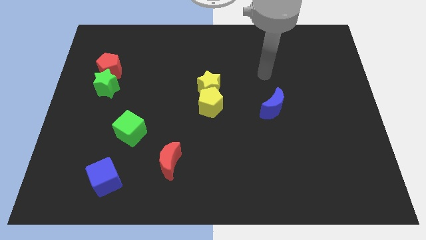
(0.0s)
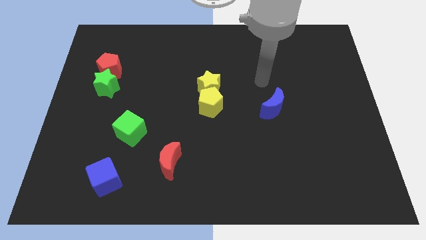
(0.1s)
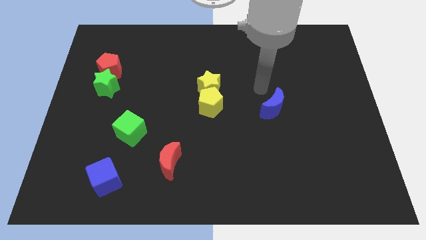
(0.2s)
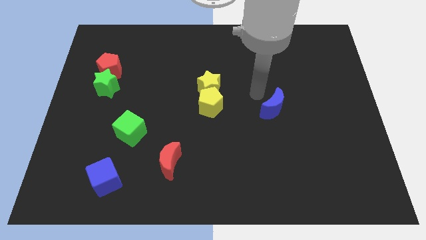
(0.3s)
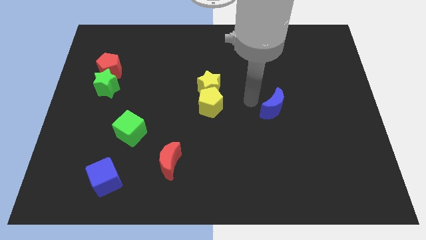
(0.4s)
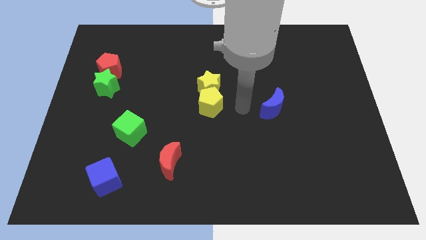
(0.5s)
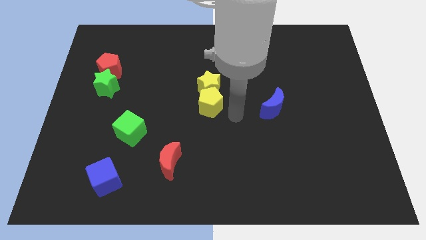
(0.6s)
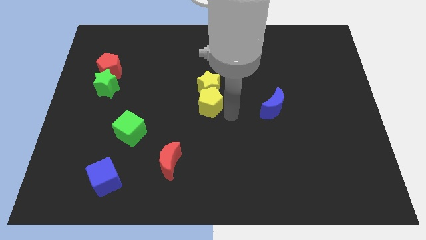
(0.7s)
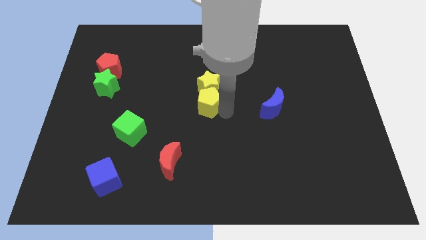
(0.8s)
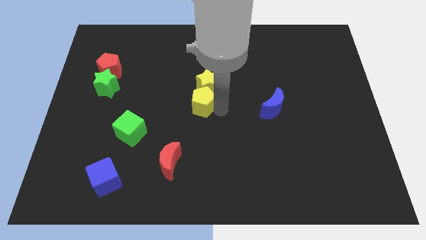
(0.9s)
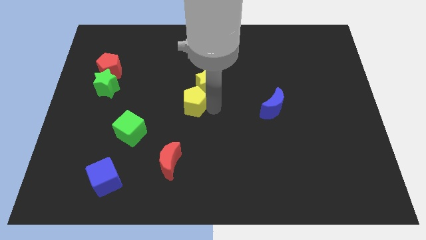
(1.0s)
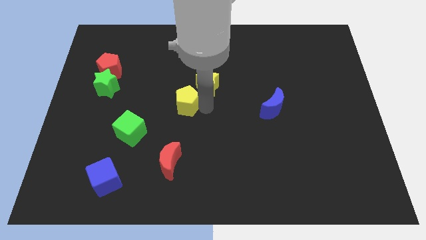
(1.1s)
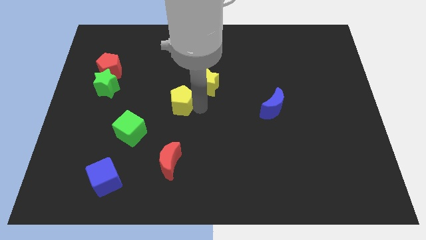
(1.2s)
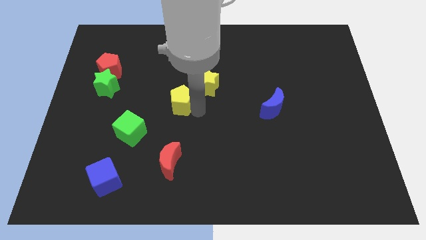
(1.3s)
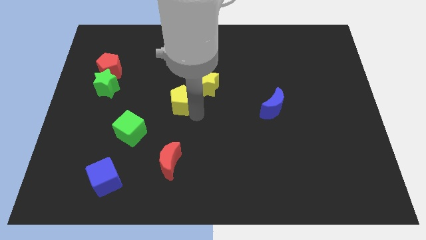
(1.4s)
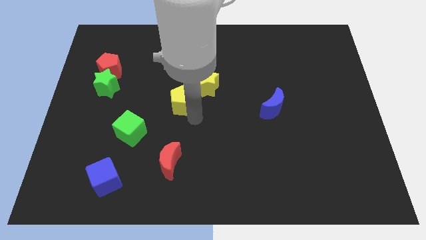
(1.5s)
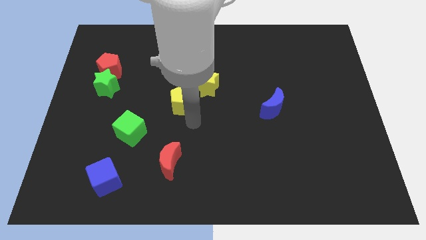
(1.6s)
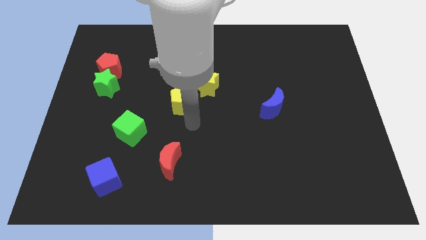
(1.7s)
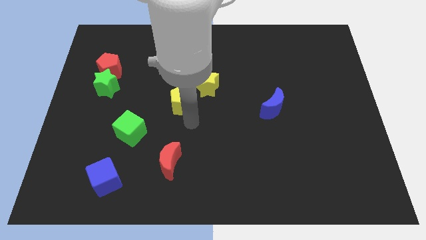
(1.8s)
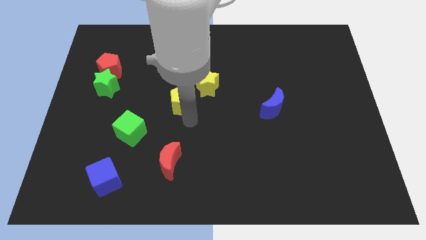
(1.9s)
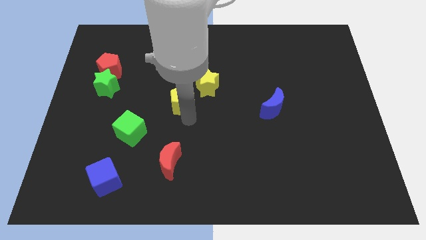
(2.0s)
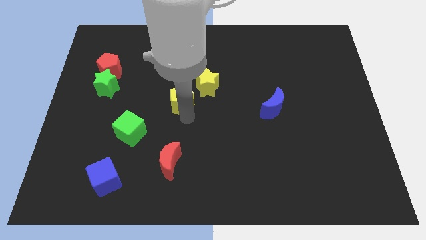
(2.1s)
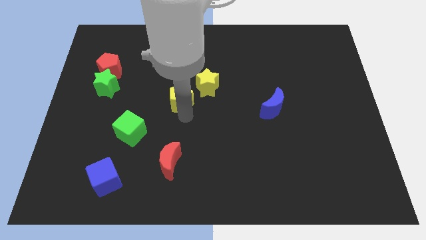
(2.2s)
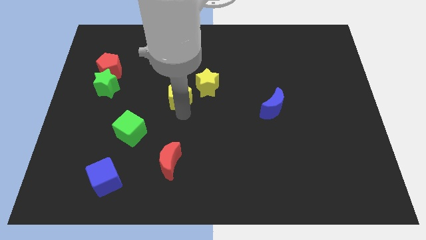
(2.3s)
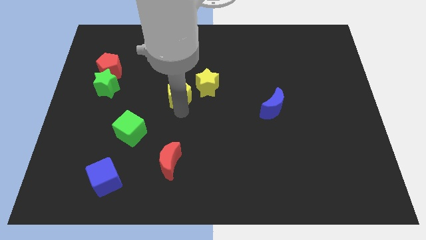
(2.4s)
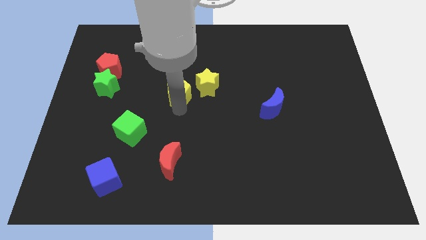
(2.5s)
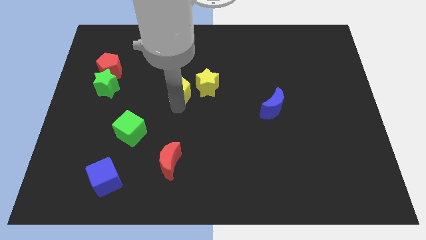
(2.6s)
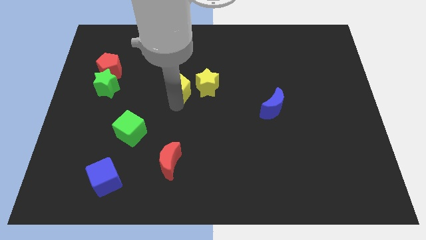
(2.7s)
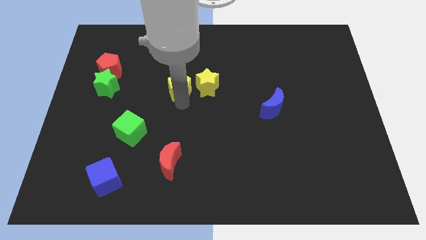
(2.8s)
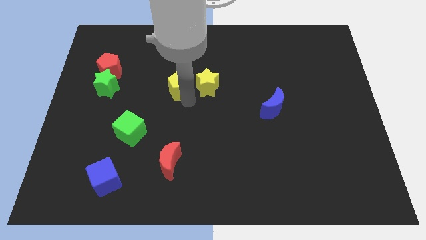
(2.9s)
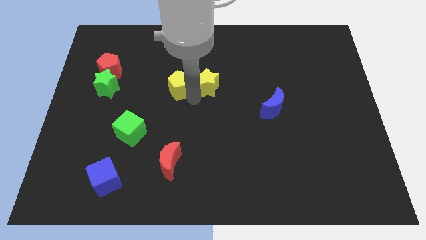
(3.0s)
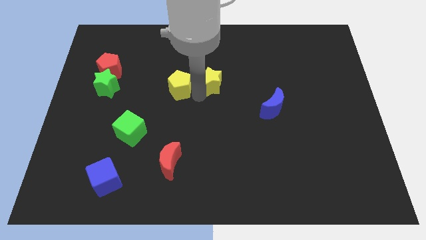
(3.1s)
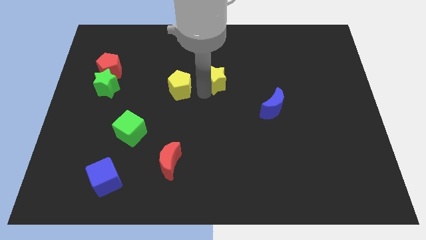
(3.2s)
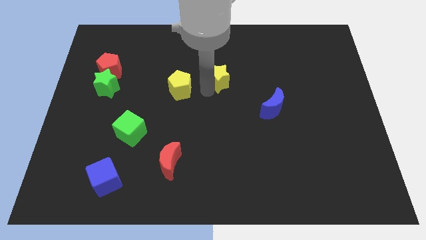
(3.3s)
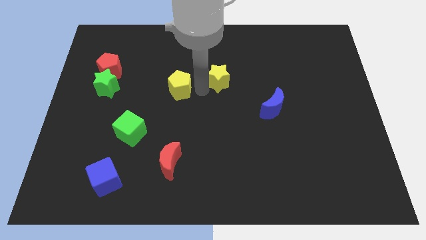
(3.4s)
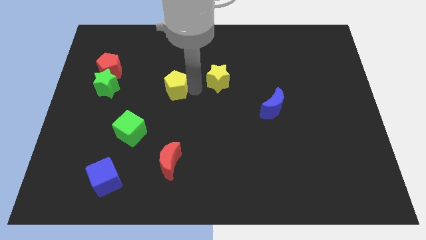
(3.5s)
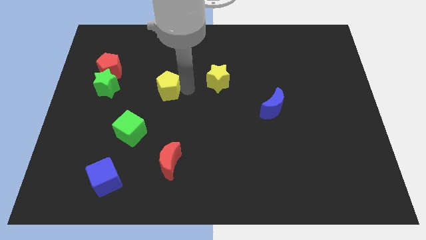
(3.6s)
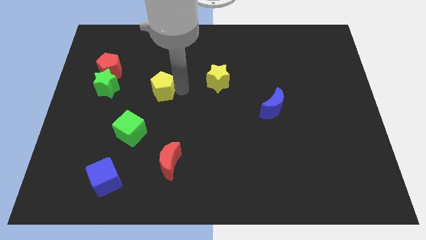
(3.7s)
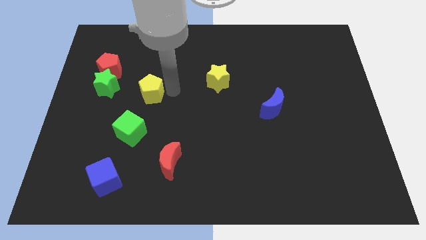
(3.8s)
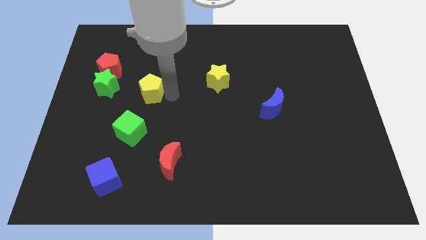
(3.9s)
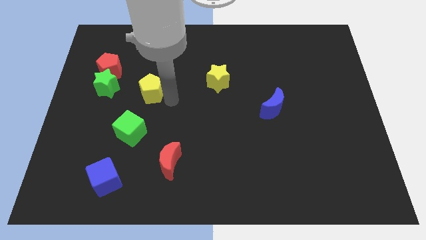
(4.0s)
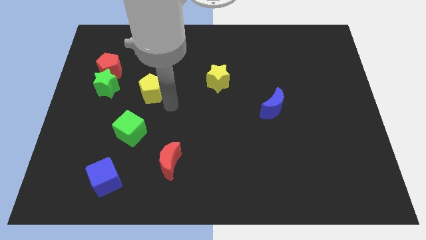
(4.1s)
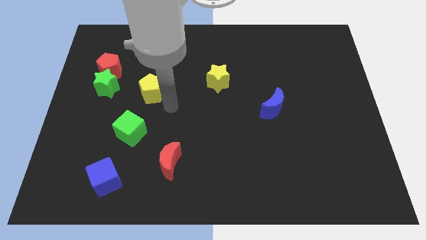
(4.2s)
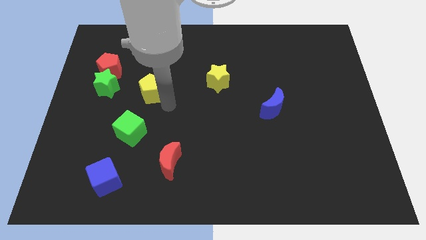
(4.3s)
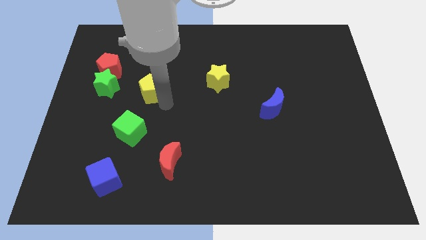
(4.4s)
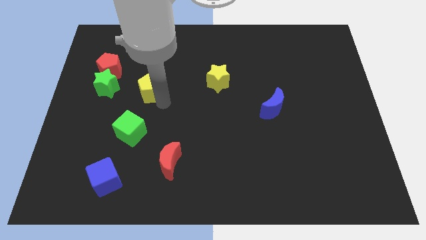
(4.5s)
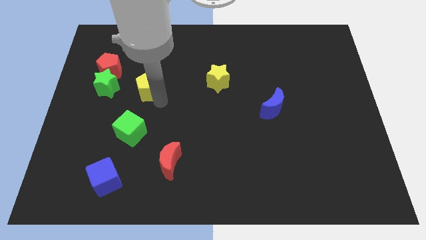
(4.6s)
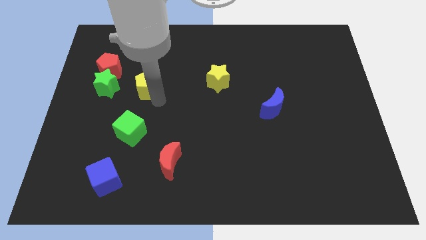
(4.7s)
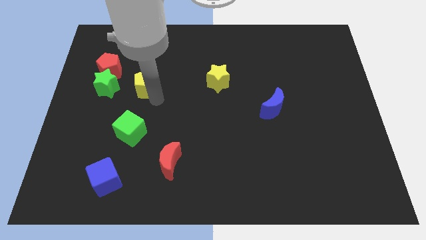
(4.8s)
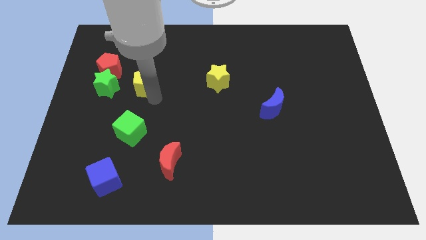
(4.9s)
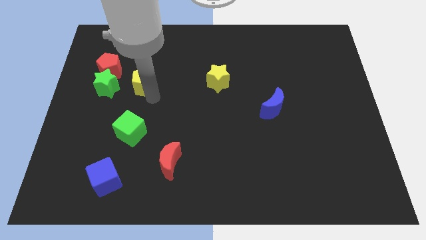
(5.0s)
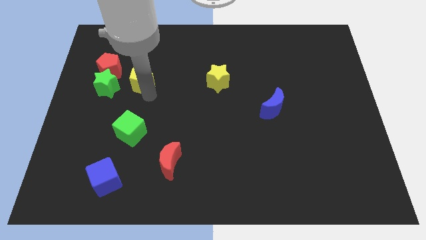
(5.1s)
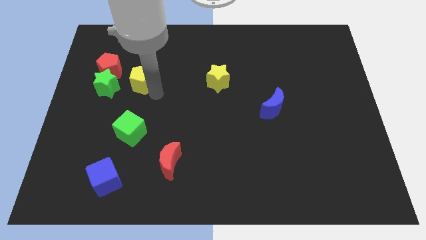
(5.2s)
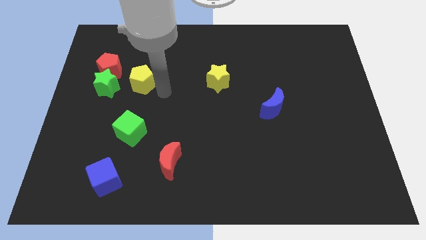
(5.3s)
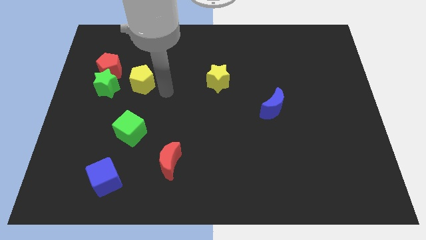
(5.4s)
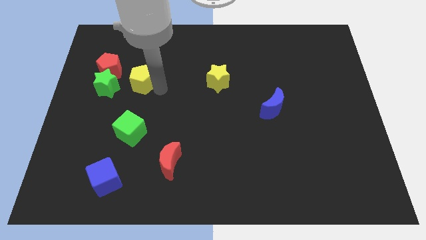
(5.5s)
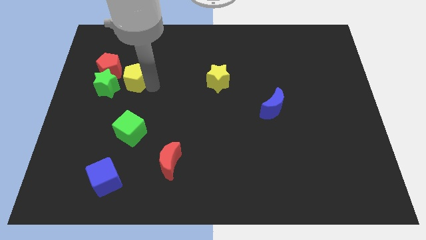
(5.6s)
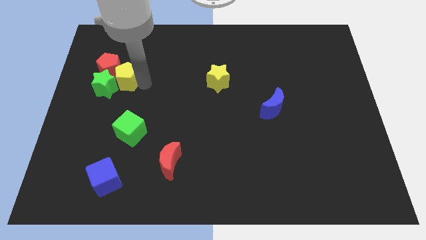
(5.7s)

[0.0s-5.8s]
put the yellow pentagon towards the red pentagon

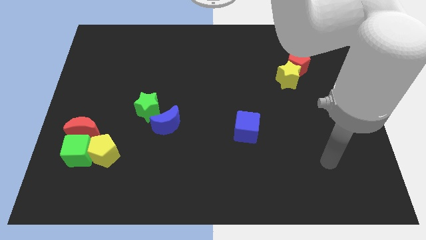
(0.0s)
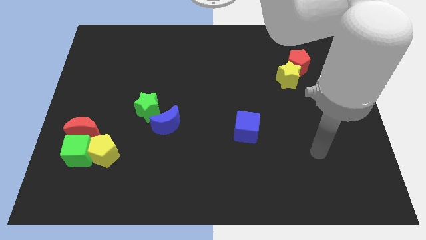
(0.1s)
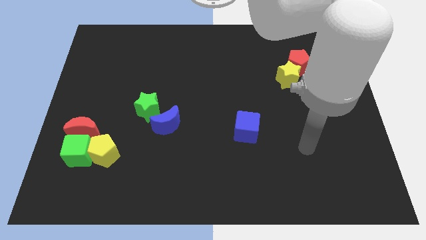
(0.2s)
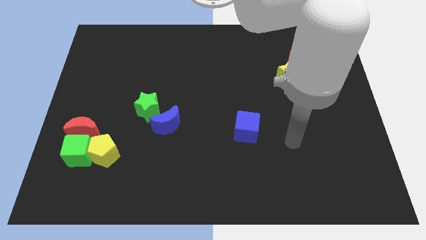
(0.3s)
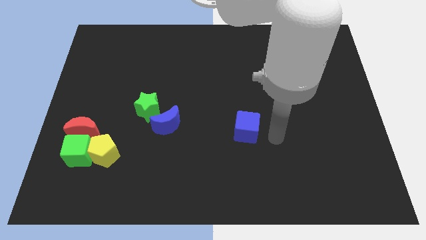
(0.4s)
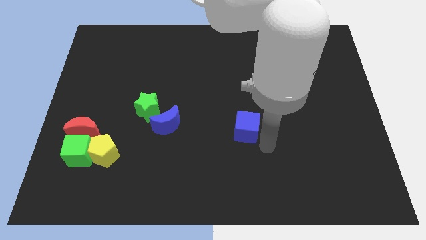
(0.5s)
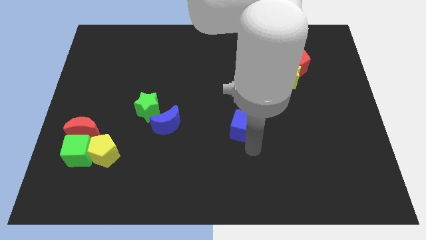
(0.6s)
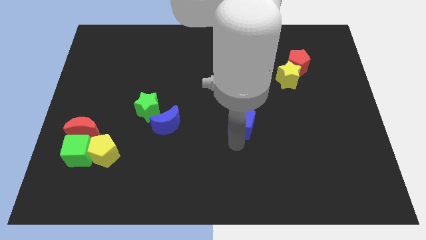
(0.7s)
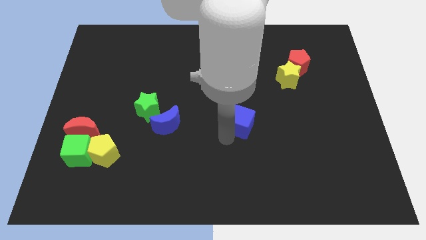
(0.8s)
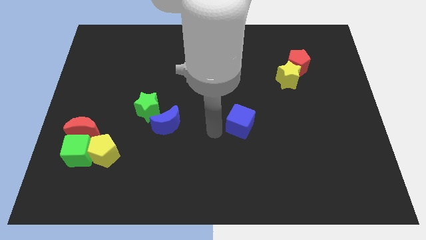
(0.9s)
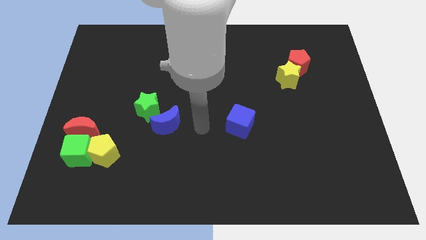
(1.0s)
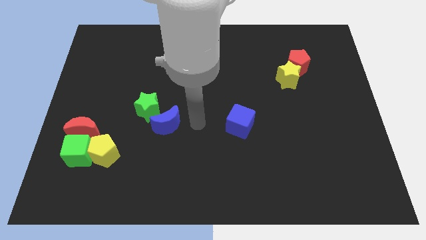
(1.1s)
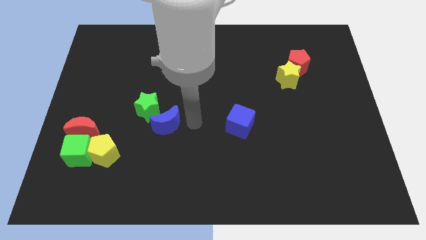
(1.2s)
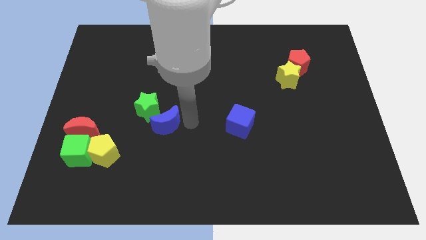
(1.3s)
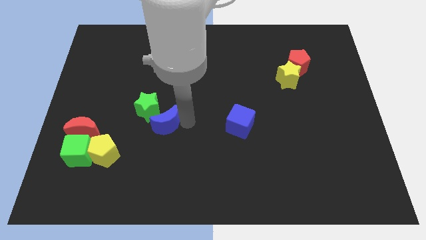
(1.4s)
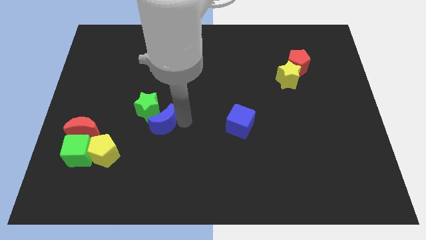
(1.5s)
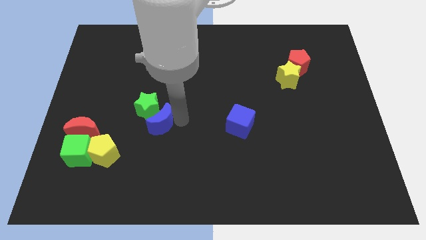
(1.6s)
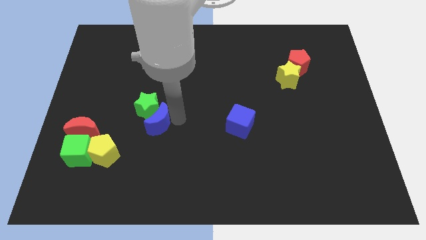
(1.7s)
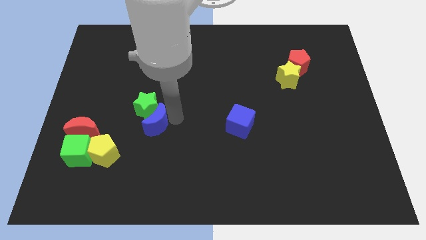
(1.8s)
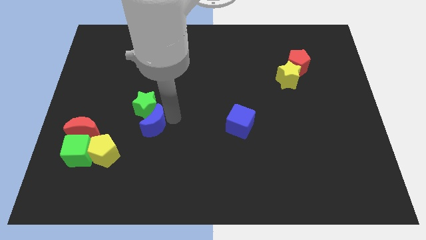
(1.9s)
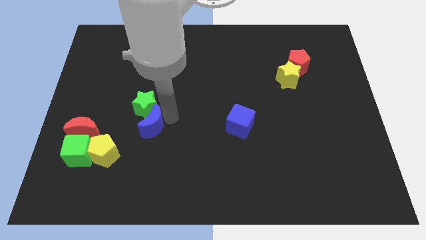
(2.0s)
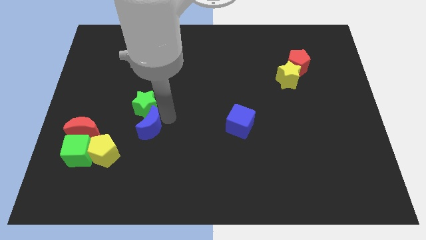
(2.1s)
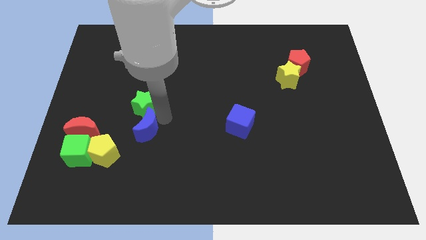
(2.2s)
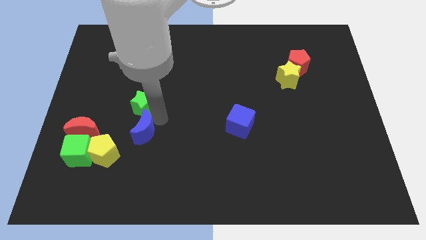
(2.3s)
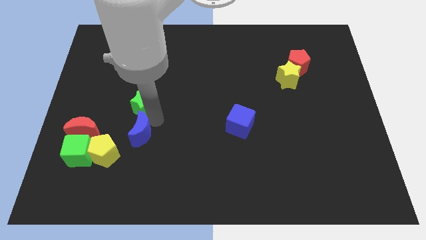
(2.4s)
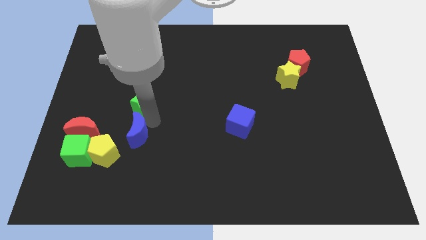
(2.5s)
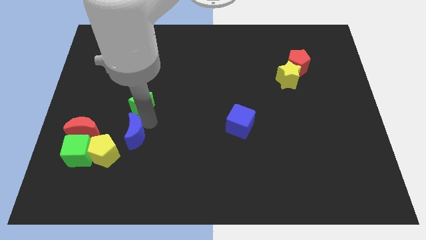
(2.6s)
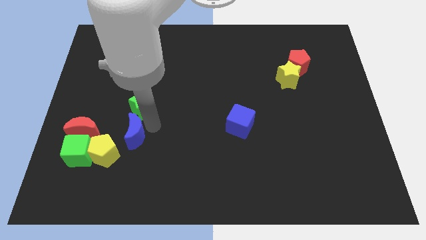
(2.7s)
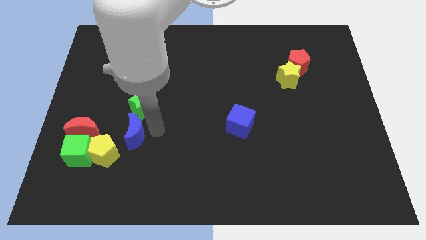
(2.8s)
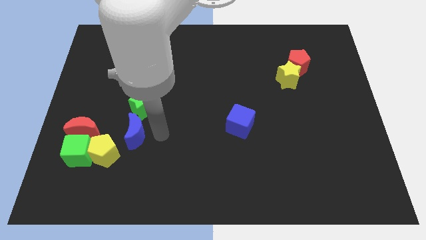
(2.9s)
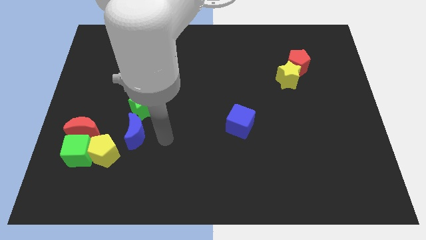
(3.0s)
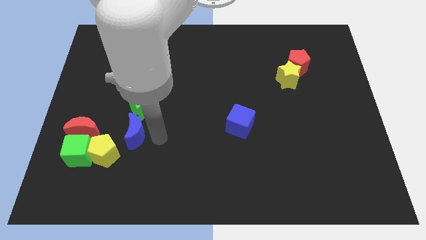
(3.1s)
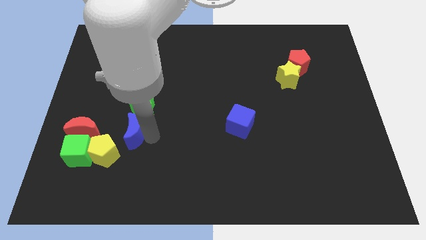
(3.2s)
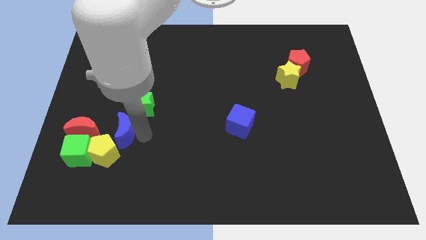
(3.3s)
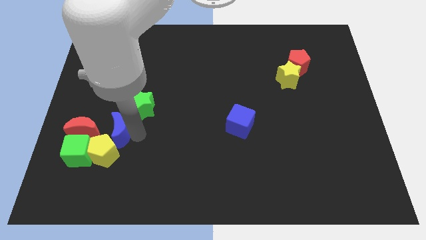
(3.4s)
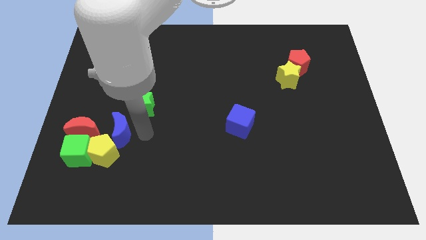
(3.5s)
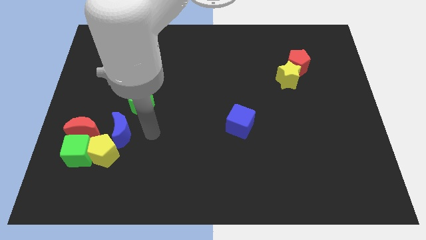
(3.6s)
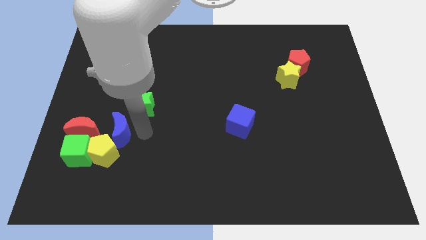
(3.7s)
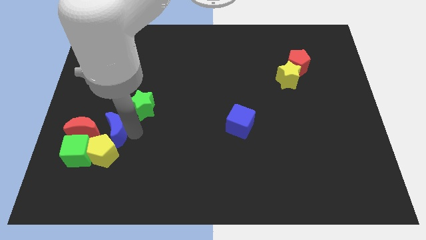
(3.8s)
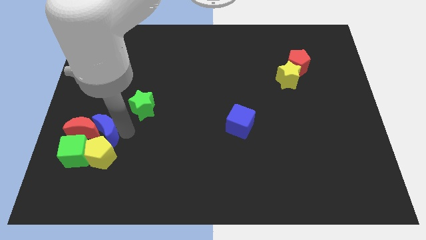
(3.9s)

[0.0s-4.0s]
slide the blue moon close to the red moon
